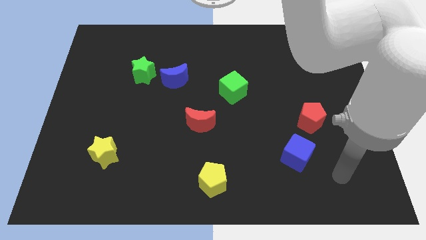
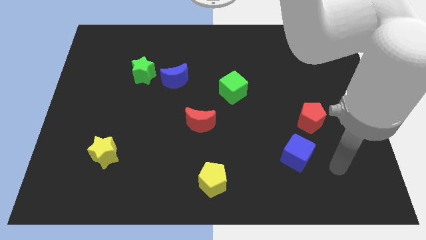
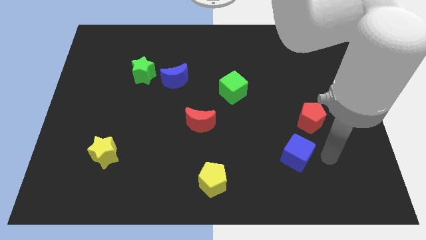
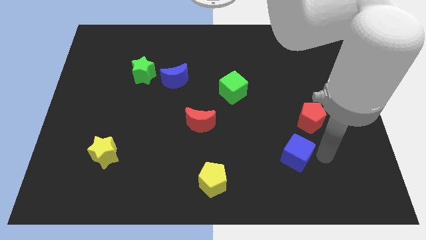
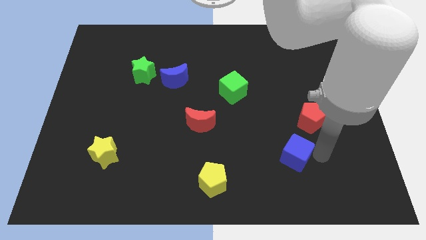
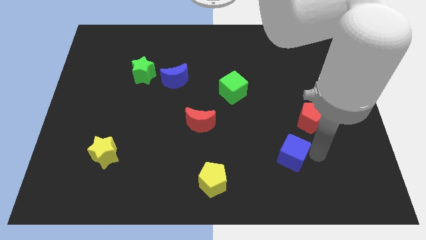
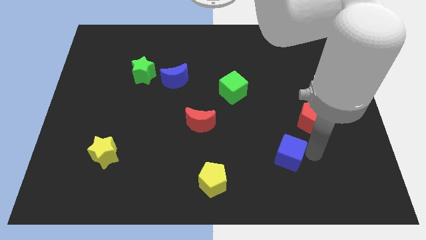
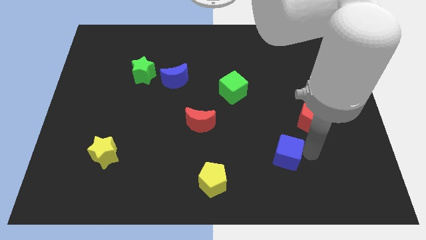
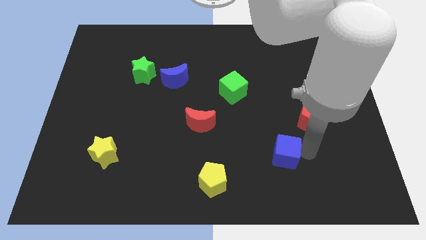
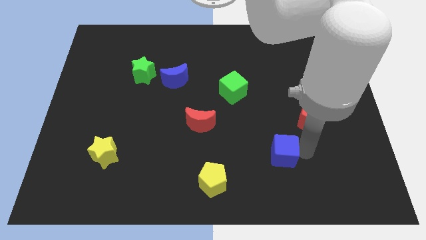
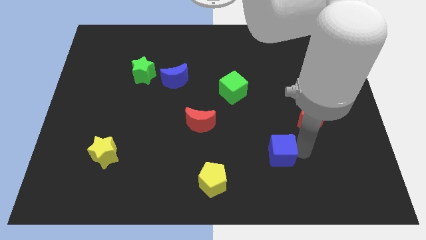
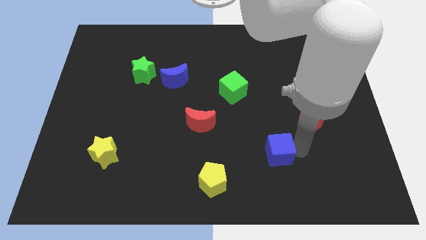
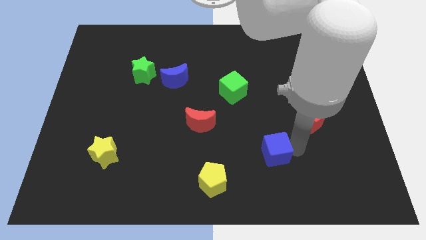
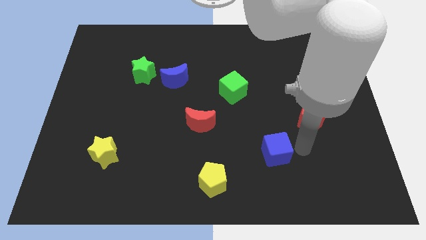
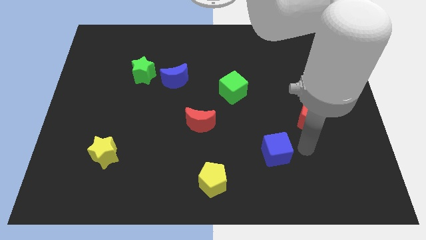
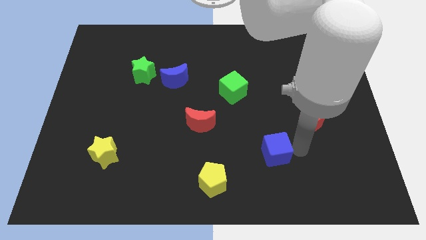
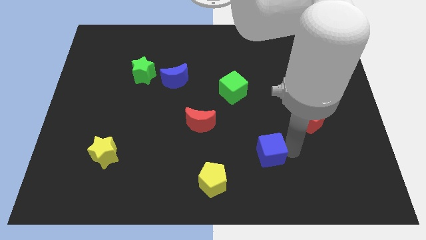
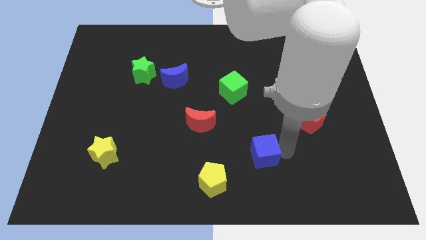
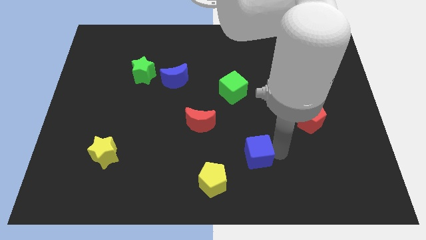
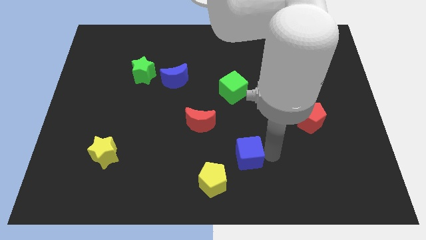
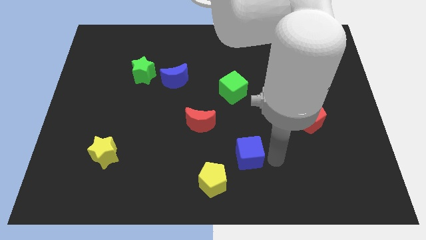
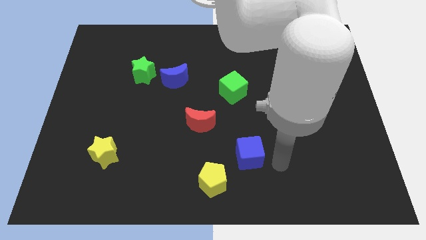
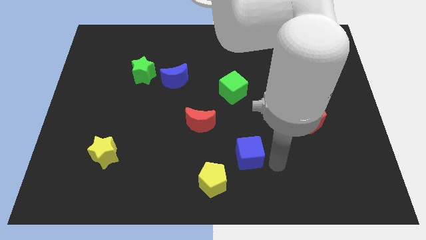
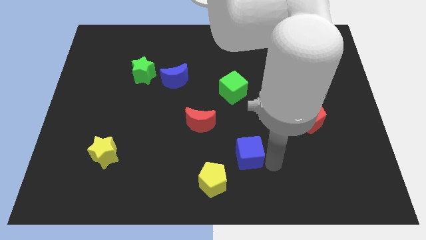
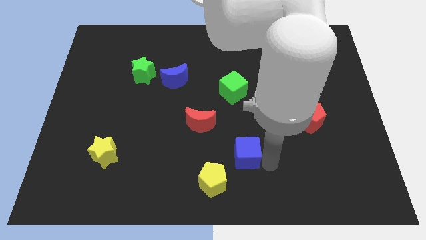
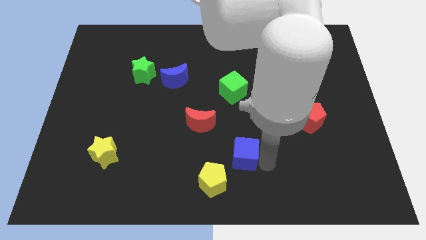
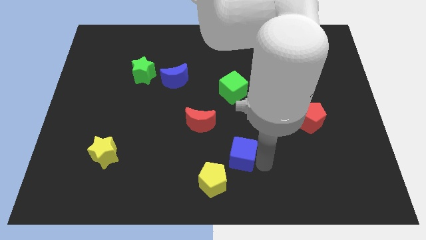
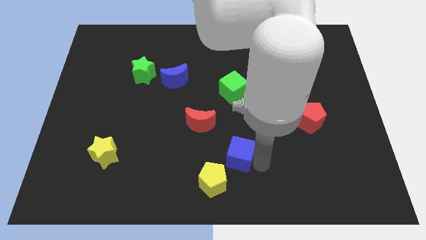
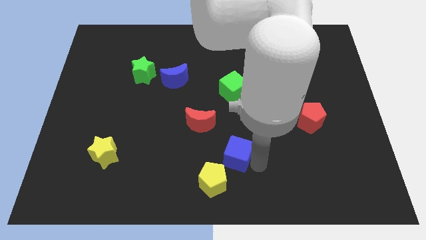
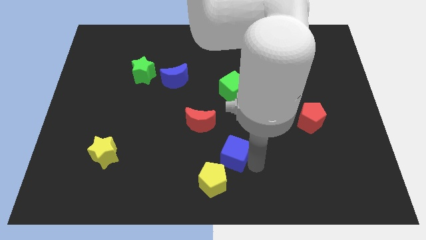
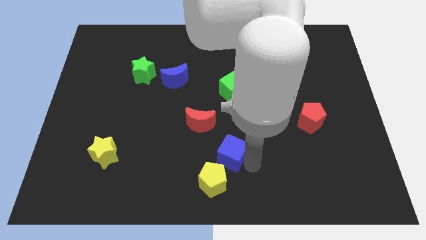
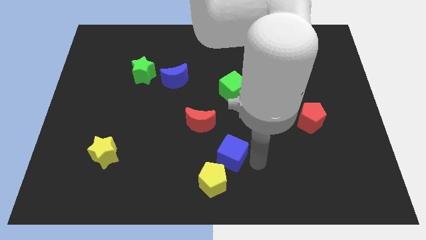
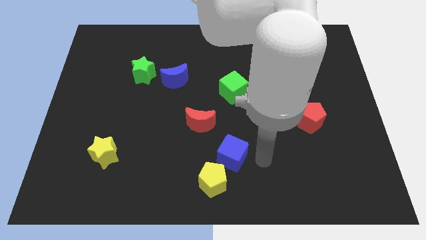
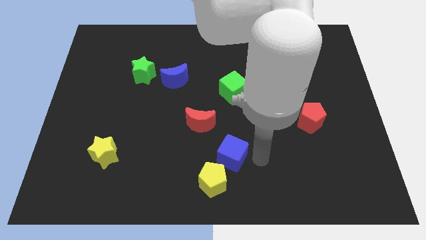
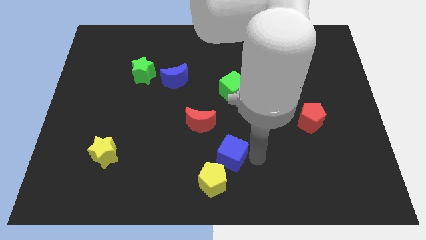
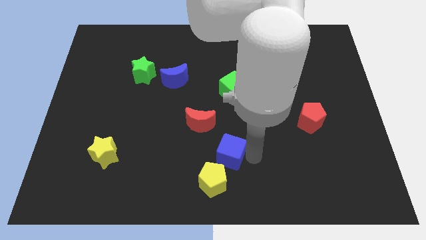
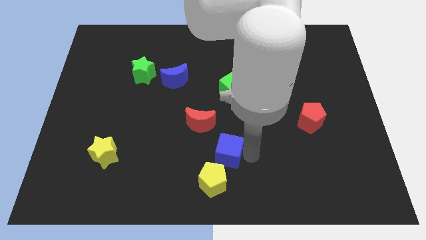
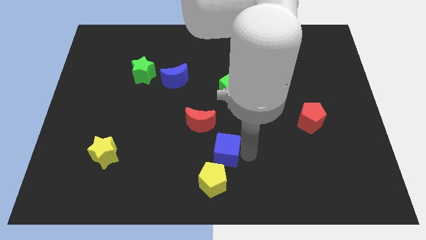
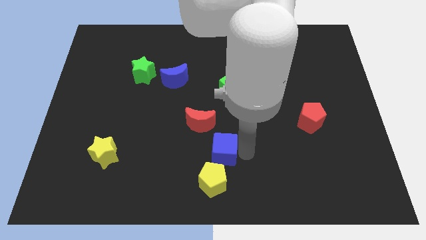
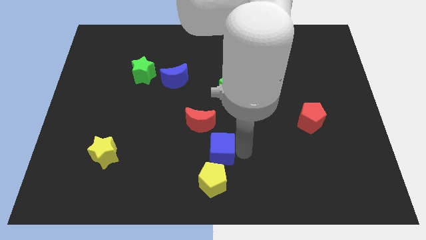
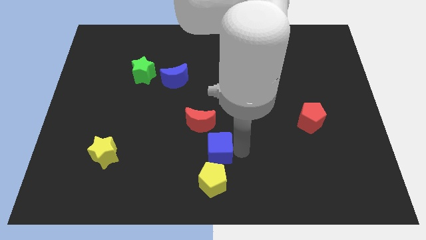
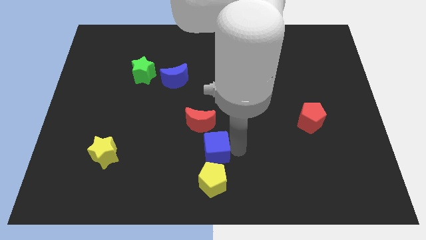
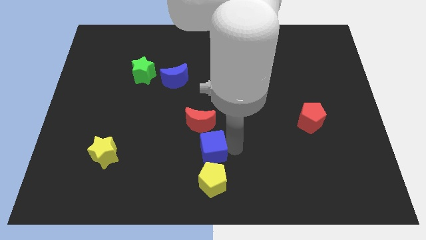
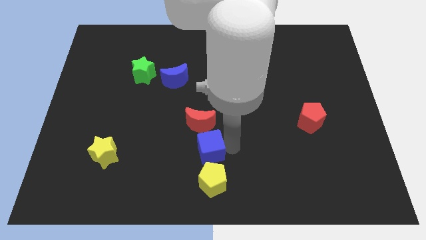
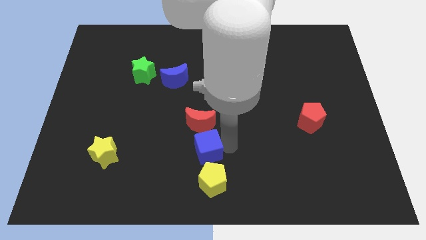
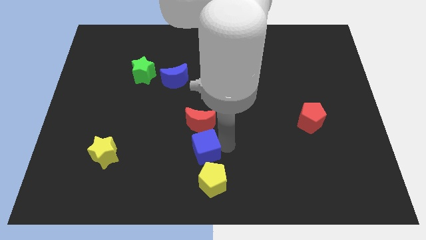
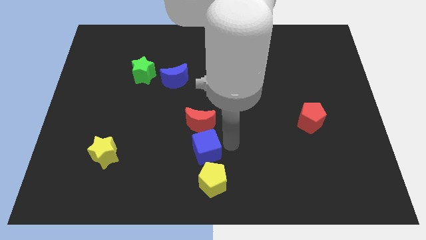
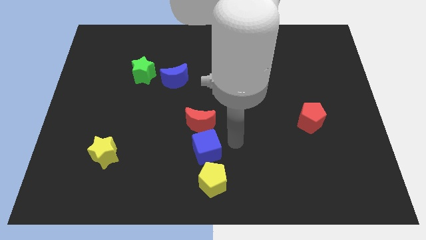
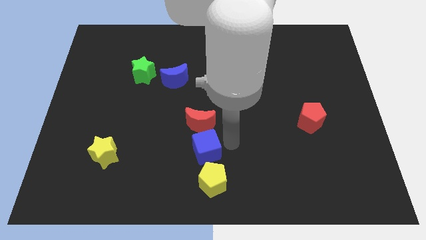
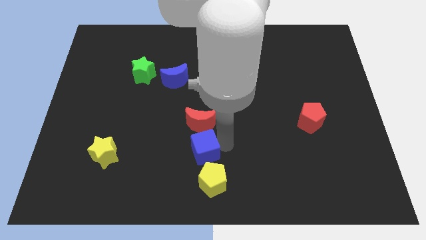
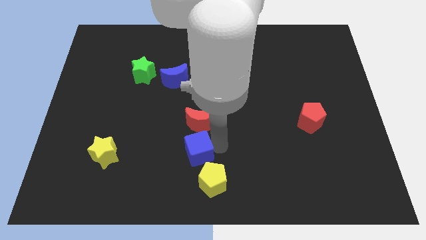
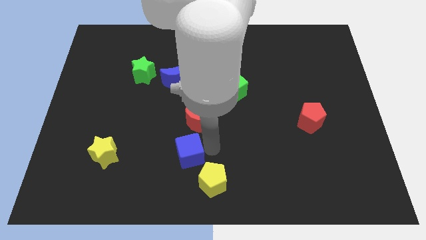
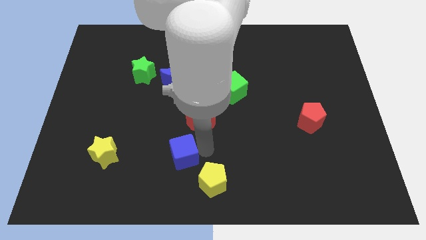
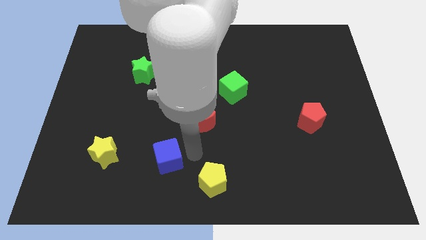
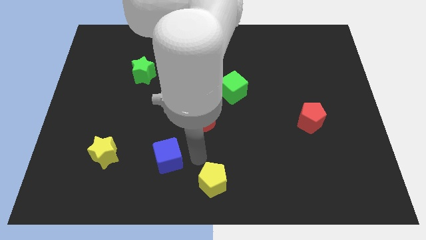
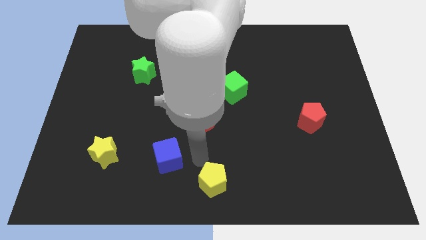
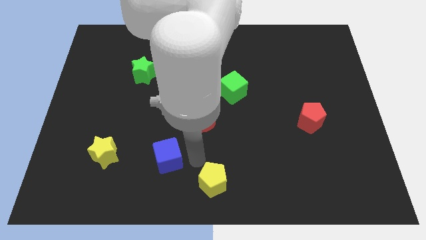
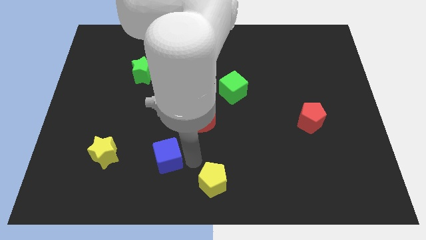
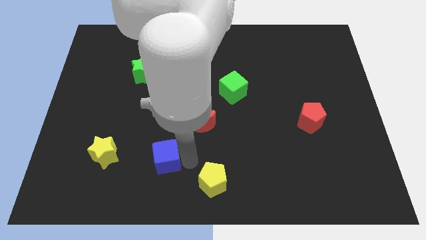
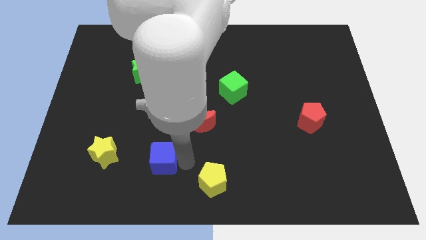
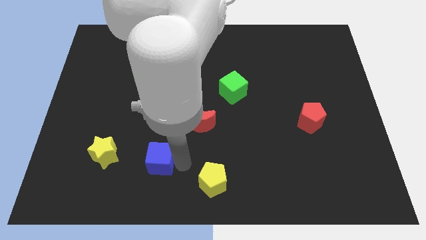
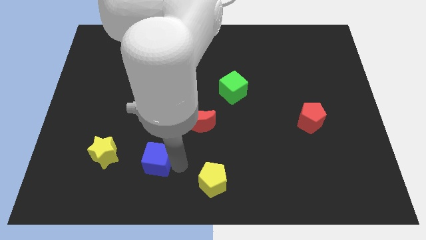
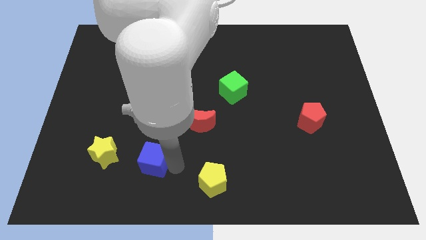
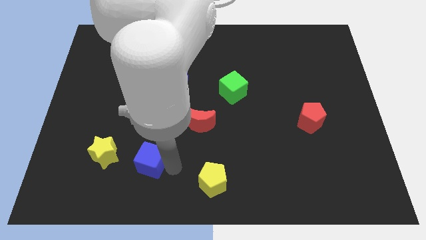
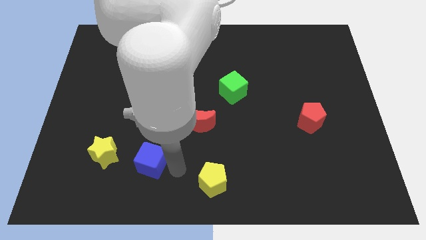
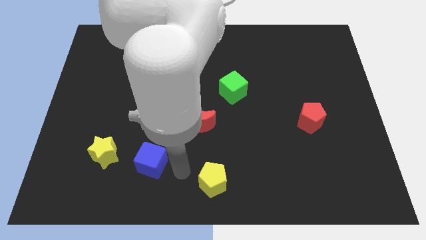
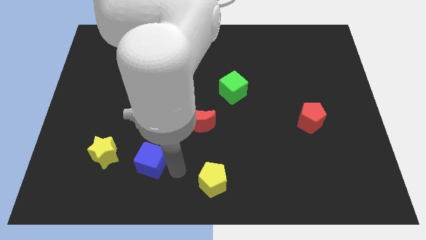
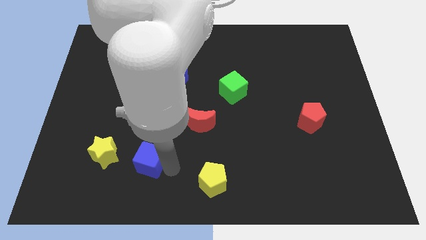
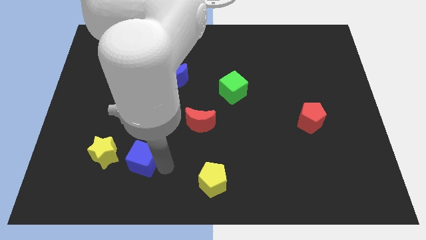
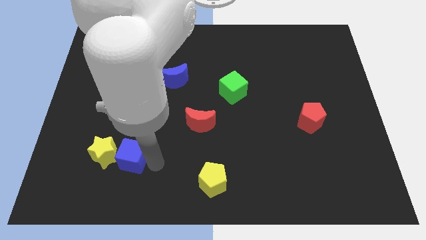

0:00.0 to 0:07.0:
move the blue cube close to the yellow star
